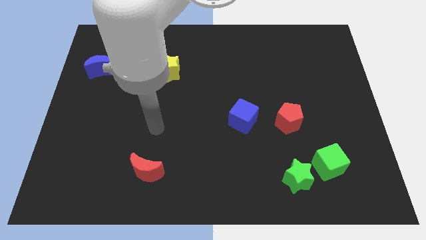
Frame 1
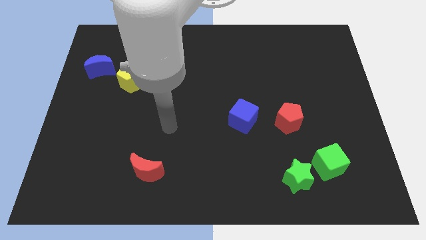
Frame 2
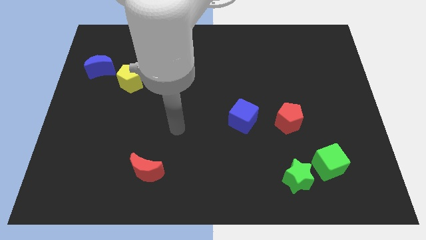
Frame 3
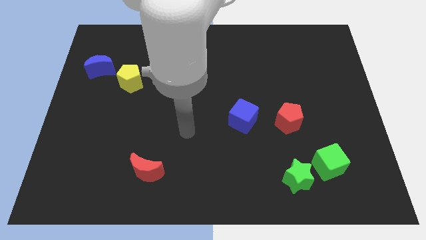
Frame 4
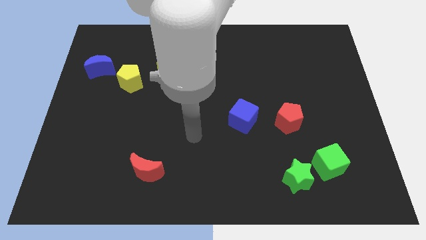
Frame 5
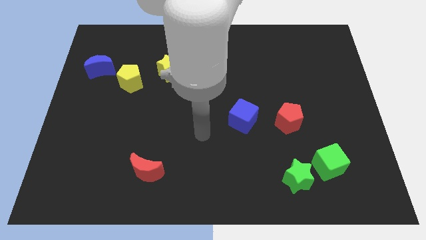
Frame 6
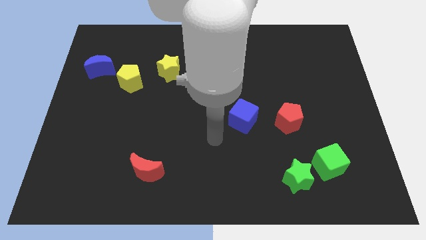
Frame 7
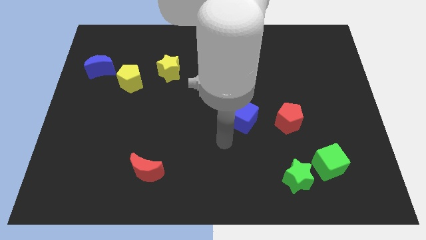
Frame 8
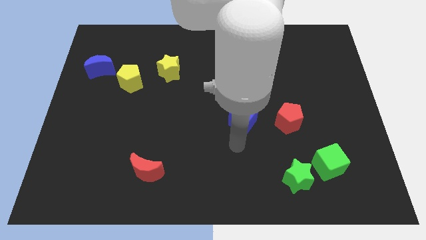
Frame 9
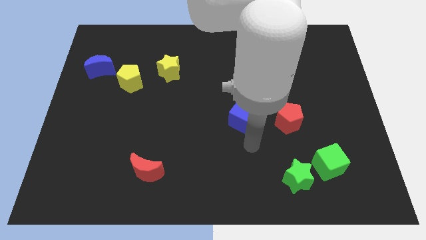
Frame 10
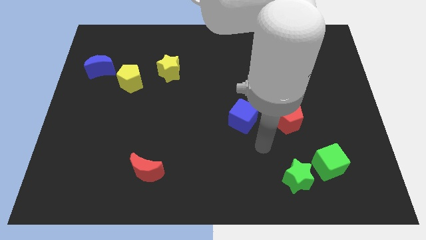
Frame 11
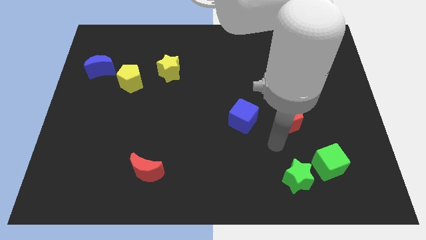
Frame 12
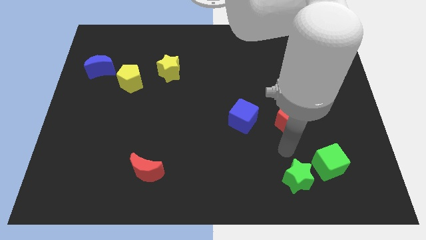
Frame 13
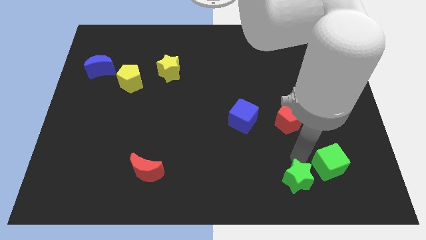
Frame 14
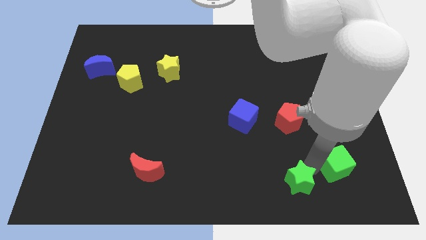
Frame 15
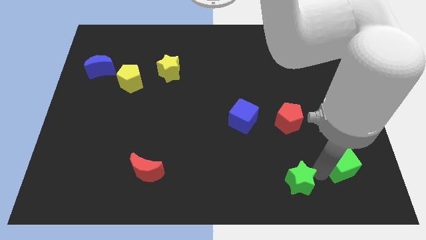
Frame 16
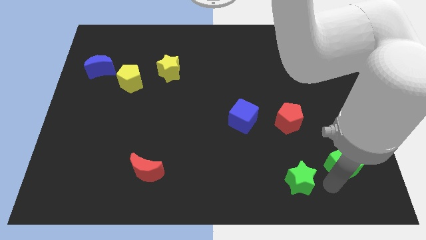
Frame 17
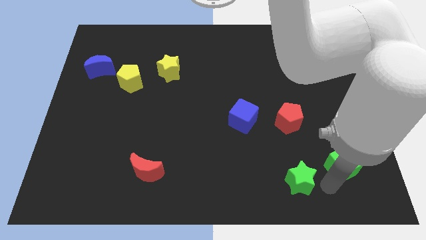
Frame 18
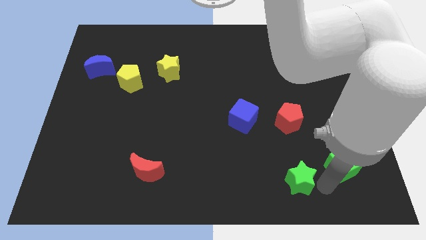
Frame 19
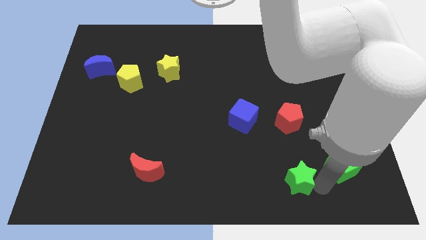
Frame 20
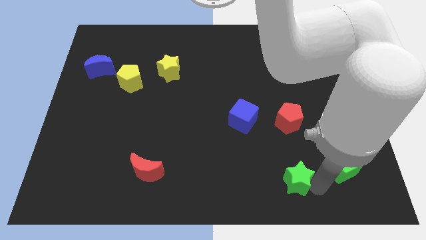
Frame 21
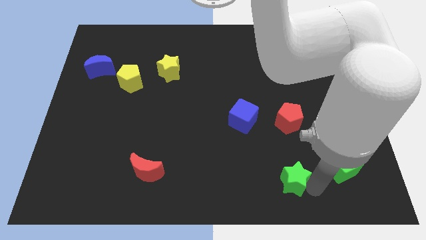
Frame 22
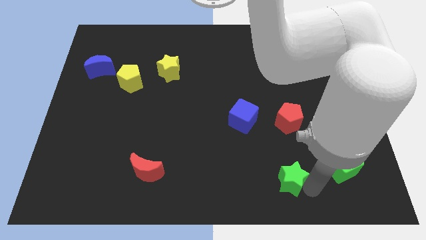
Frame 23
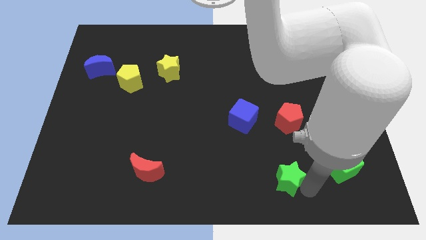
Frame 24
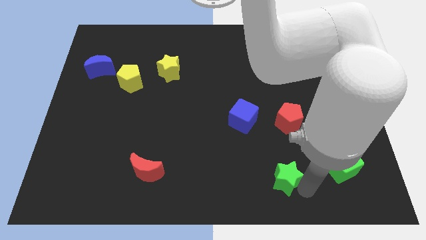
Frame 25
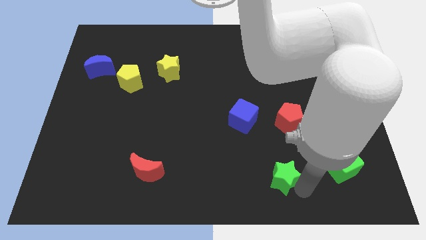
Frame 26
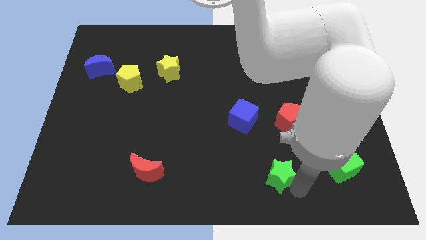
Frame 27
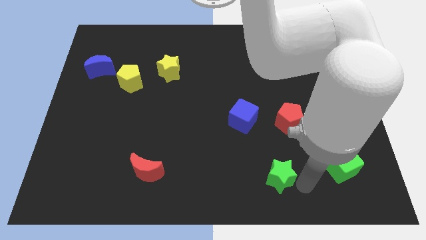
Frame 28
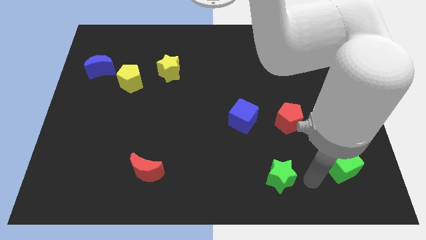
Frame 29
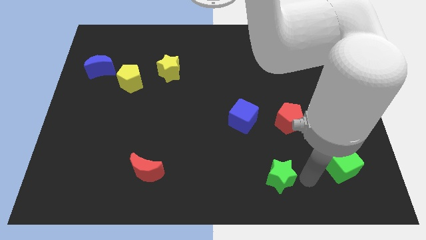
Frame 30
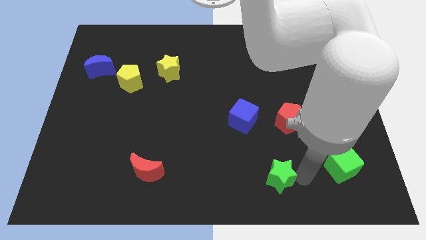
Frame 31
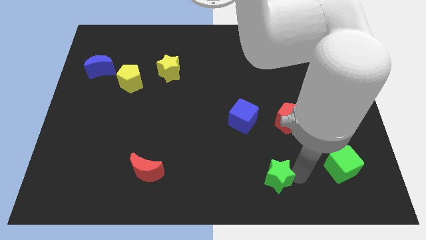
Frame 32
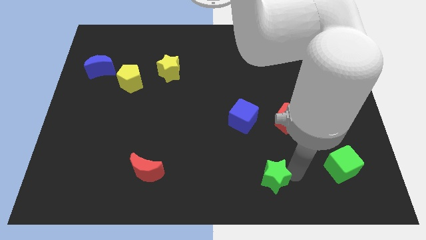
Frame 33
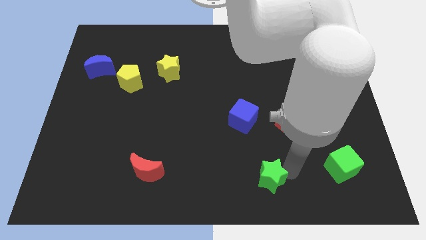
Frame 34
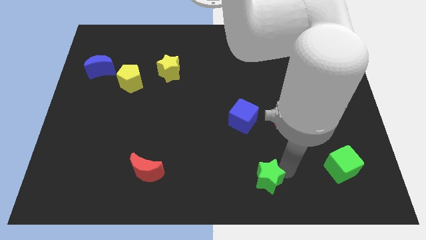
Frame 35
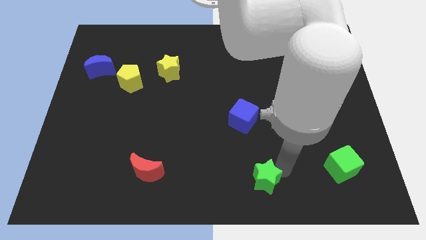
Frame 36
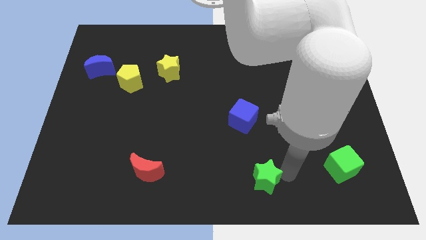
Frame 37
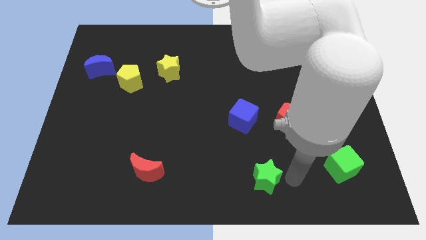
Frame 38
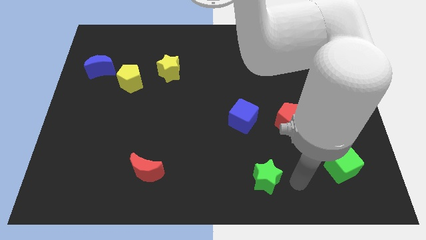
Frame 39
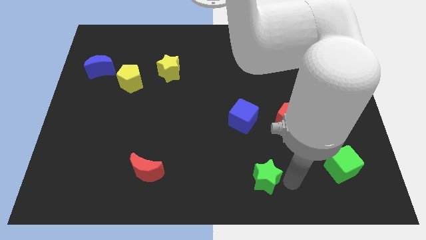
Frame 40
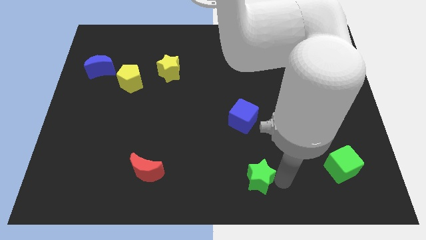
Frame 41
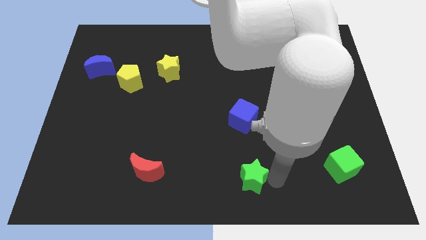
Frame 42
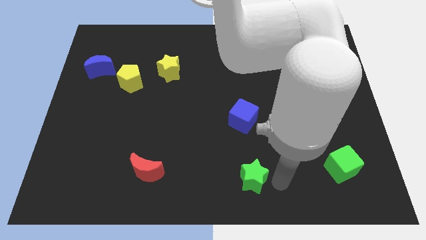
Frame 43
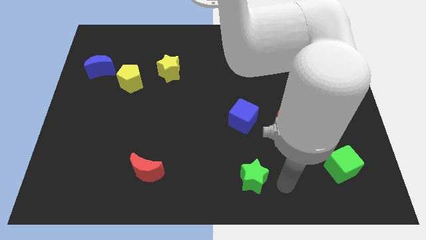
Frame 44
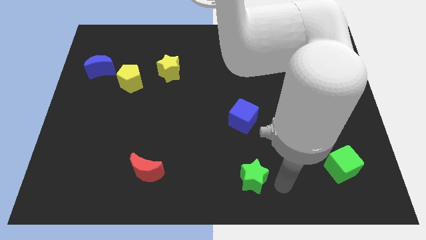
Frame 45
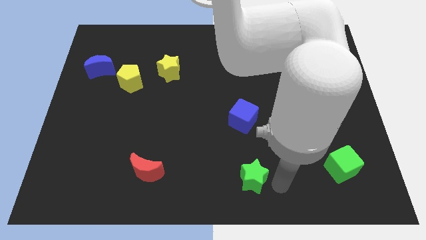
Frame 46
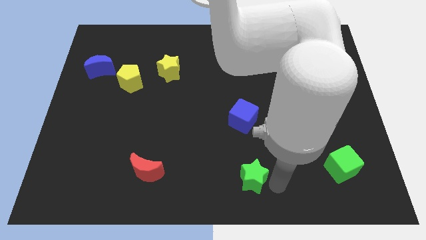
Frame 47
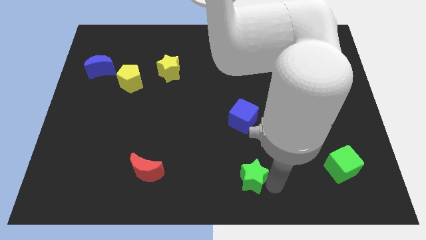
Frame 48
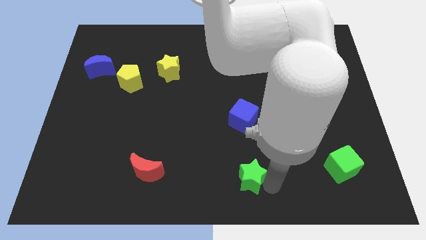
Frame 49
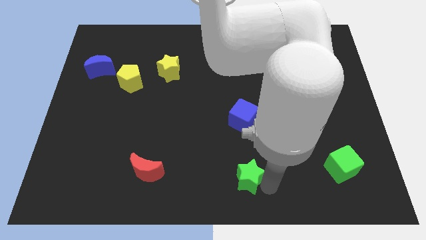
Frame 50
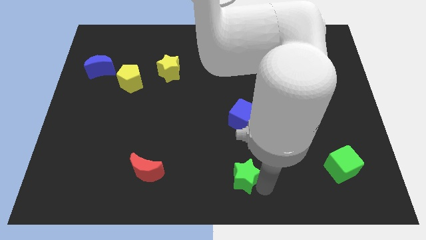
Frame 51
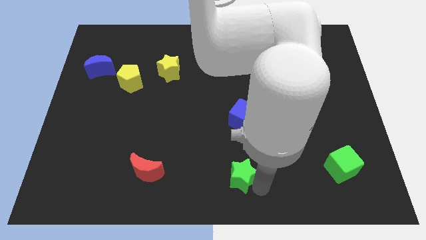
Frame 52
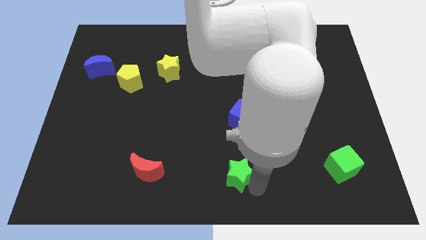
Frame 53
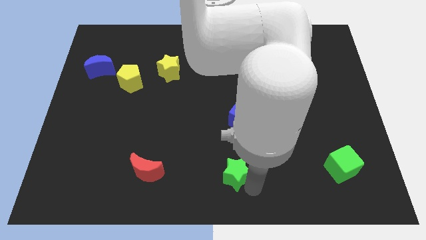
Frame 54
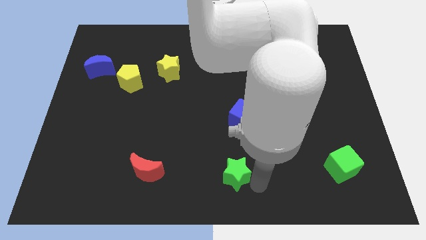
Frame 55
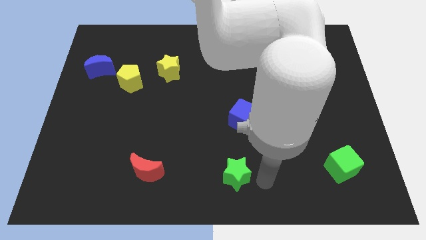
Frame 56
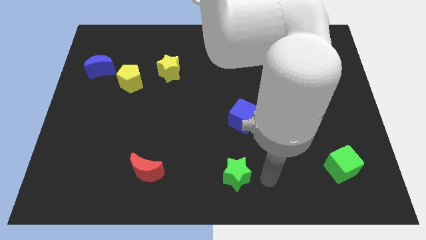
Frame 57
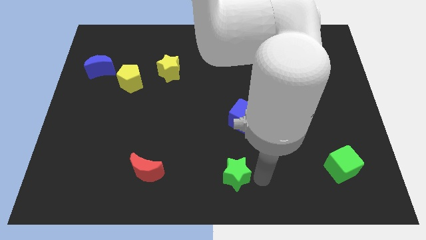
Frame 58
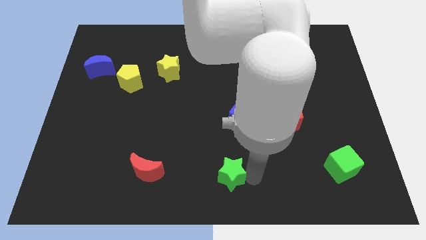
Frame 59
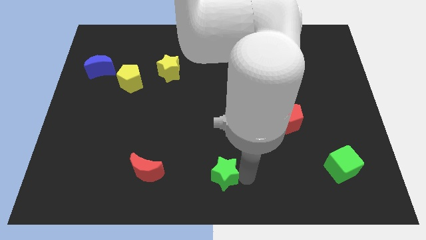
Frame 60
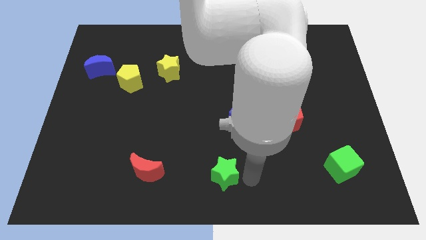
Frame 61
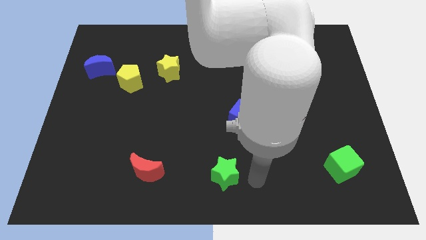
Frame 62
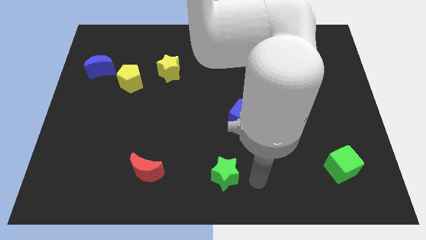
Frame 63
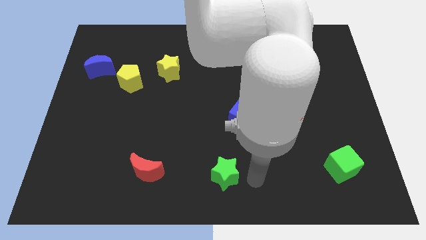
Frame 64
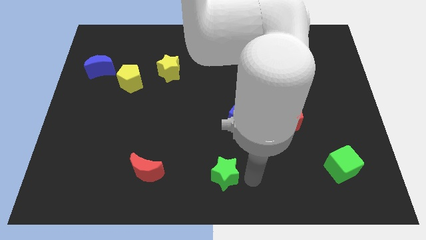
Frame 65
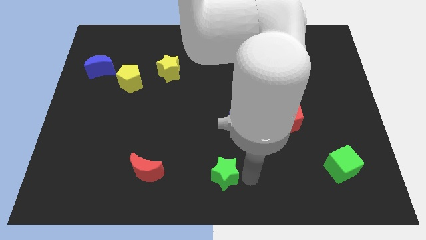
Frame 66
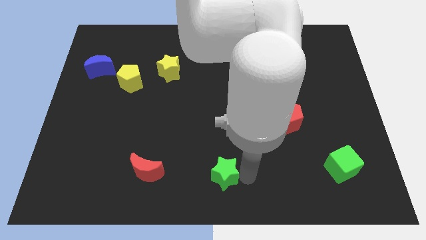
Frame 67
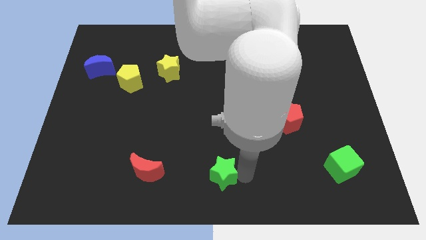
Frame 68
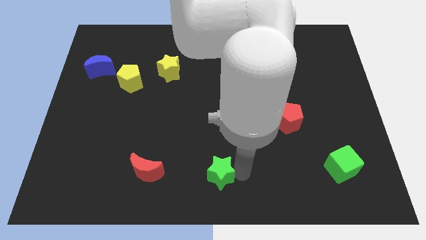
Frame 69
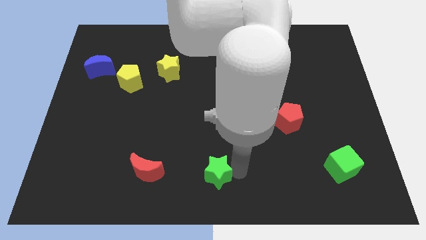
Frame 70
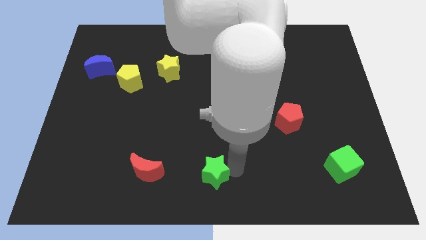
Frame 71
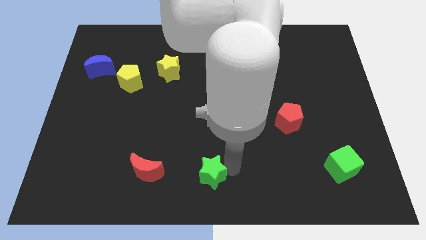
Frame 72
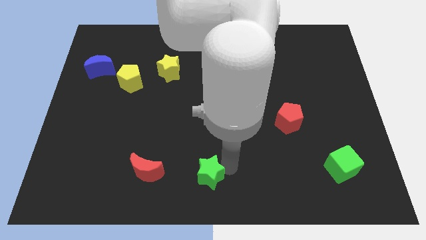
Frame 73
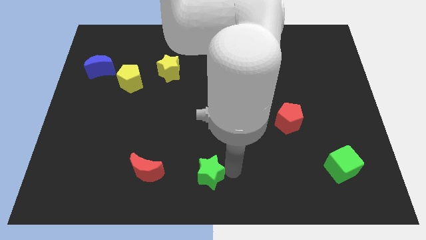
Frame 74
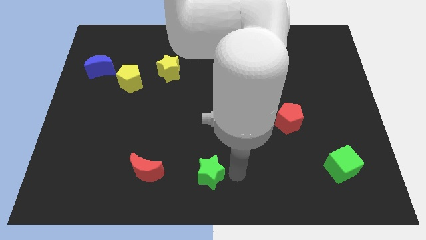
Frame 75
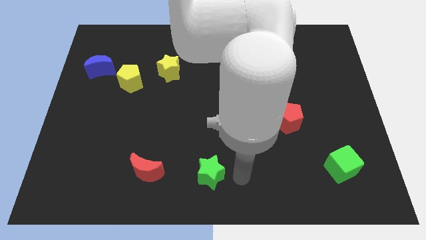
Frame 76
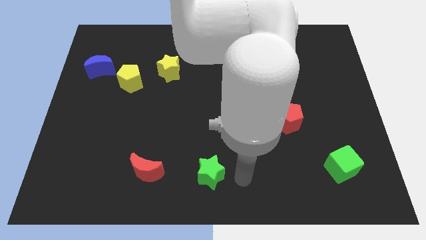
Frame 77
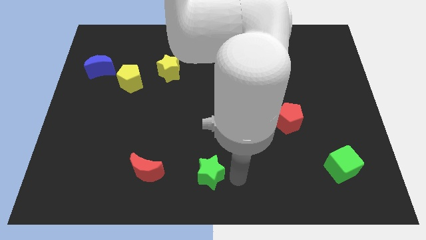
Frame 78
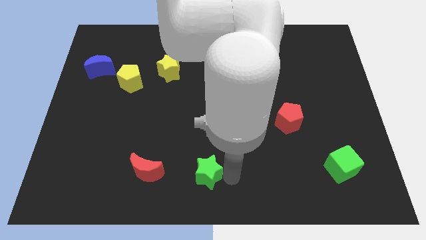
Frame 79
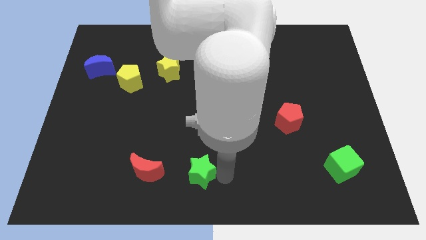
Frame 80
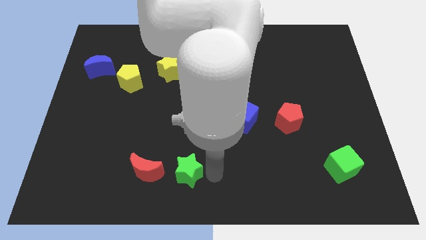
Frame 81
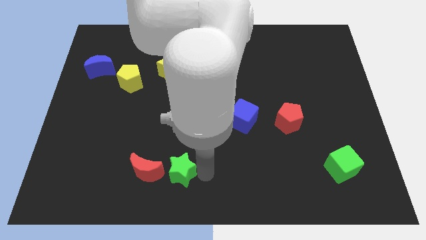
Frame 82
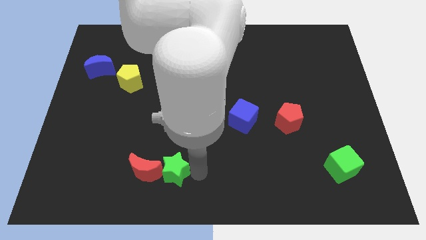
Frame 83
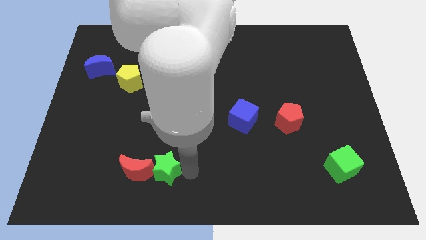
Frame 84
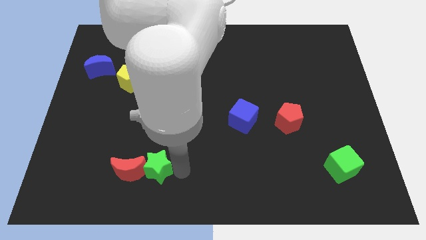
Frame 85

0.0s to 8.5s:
push the green star to the red moon
